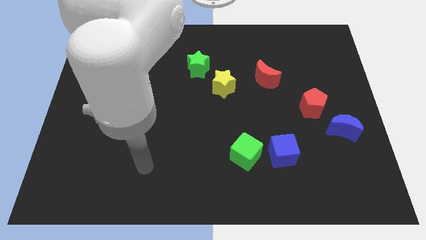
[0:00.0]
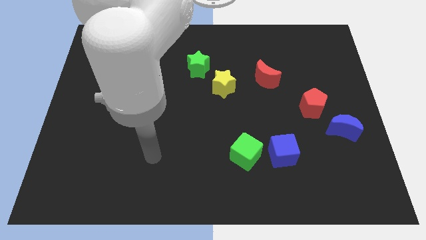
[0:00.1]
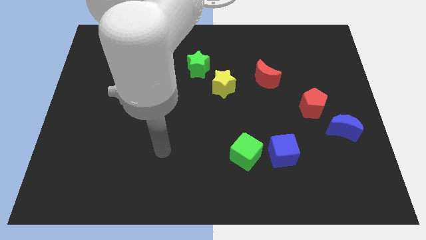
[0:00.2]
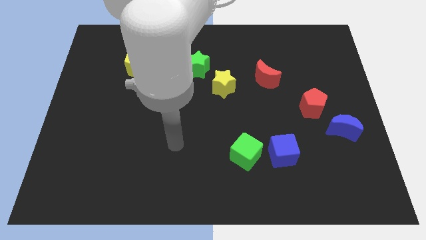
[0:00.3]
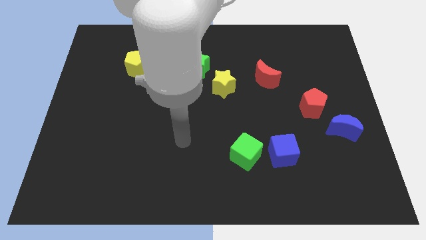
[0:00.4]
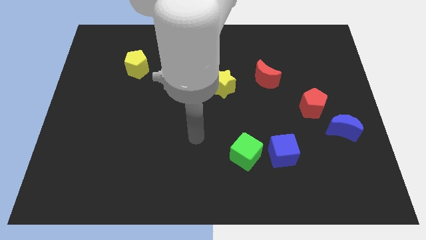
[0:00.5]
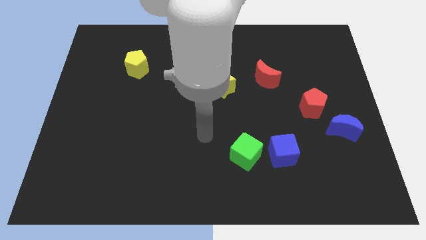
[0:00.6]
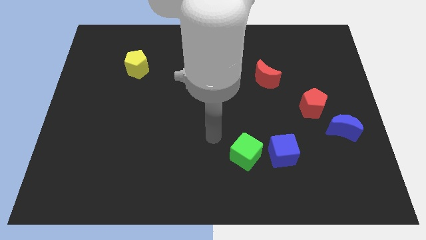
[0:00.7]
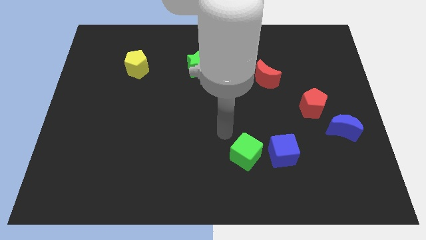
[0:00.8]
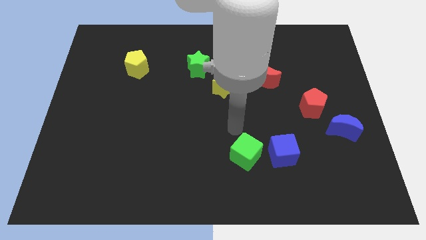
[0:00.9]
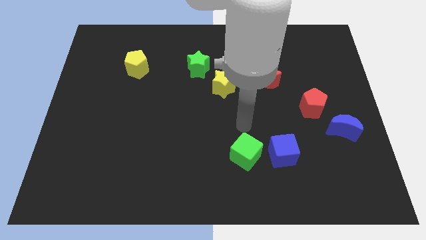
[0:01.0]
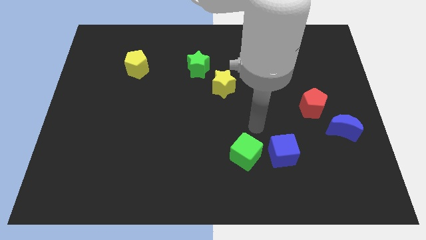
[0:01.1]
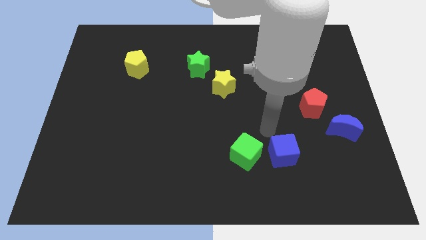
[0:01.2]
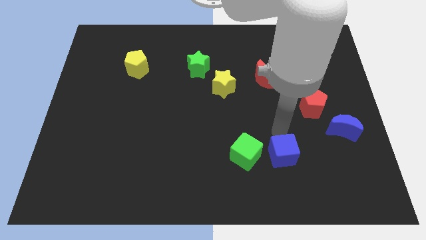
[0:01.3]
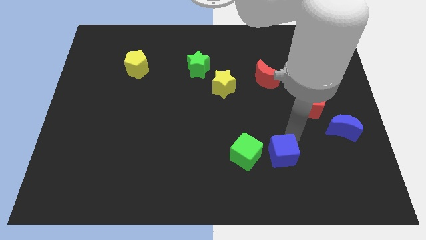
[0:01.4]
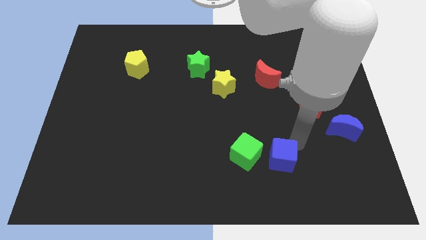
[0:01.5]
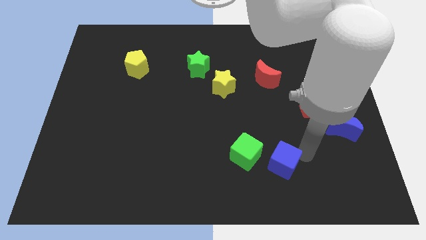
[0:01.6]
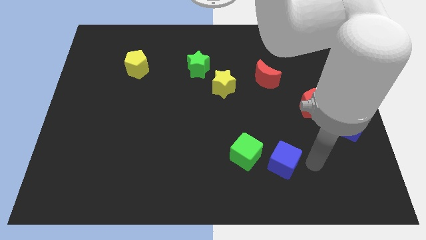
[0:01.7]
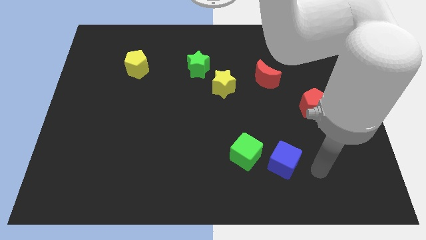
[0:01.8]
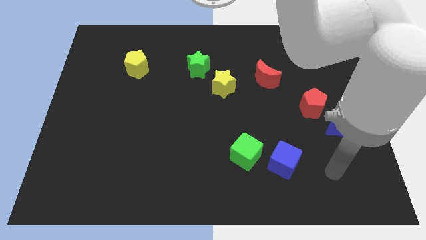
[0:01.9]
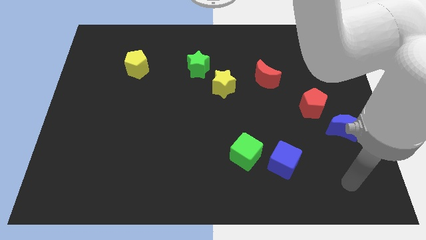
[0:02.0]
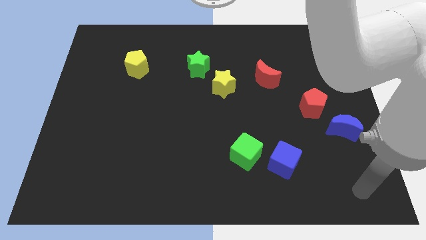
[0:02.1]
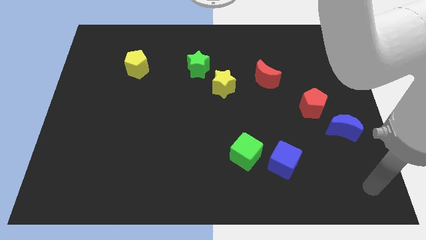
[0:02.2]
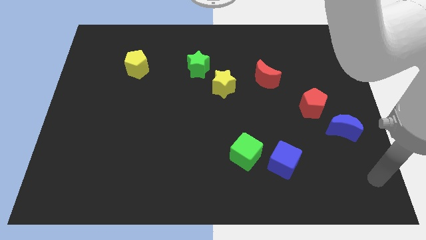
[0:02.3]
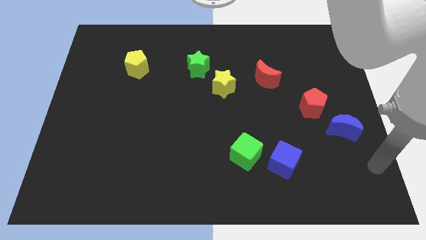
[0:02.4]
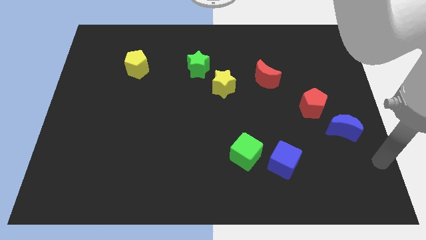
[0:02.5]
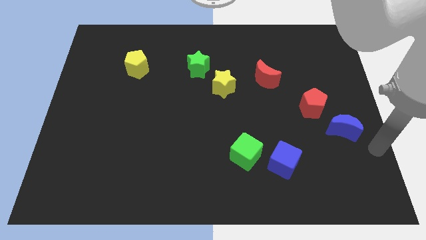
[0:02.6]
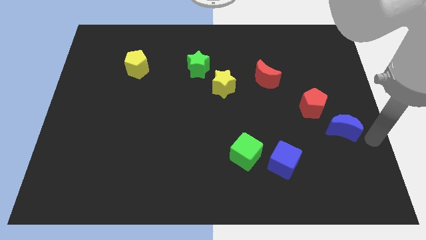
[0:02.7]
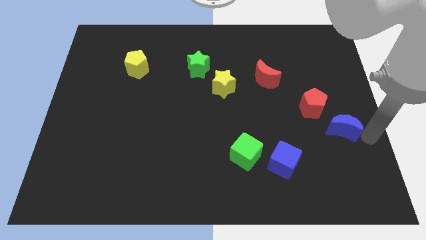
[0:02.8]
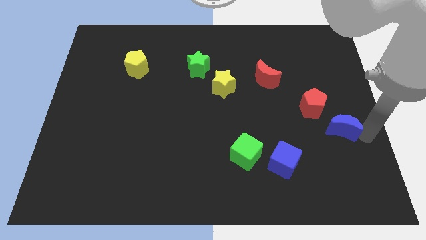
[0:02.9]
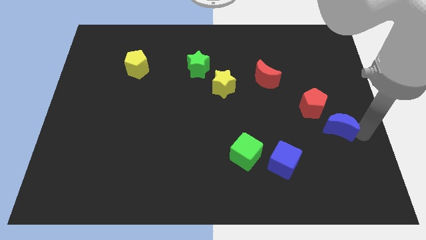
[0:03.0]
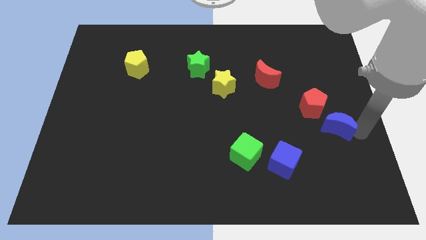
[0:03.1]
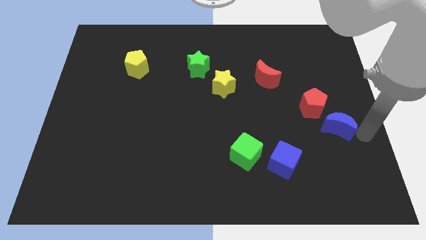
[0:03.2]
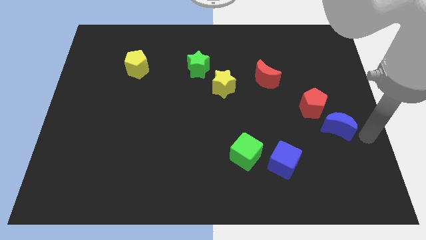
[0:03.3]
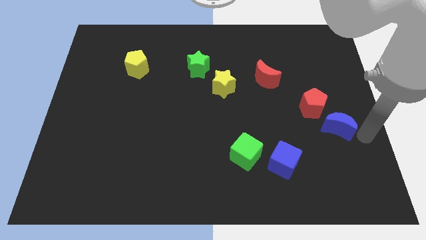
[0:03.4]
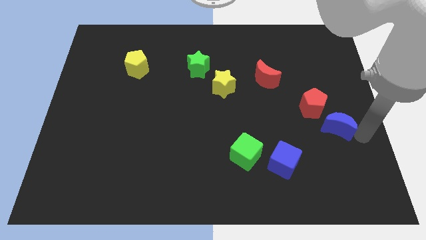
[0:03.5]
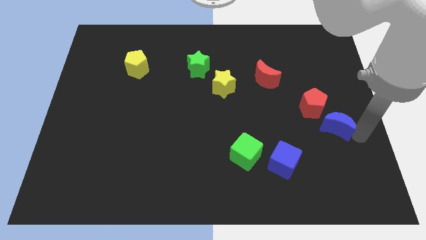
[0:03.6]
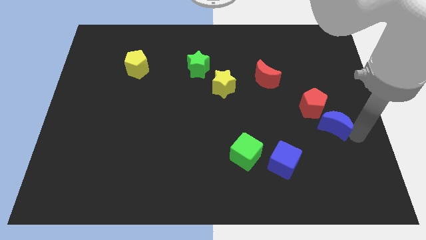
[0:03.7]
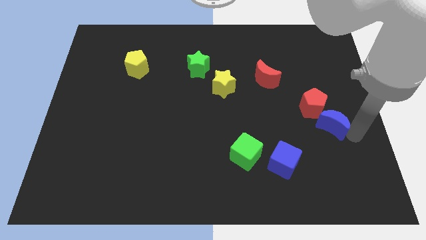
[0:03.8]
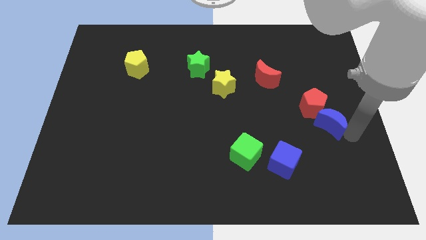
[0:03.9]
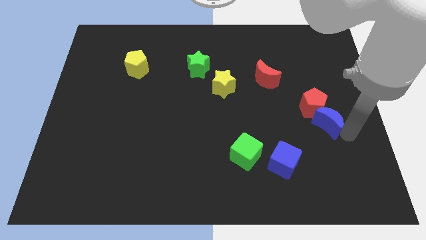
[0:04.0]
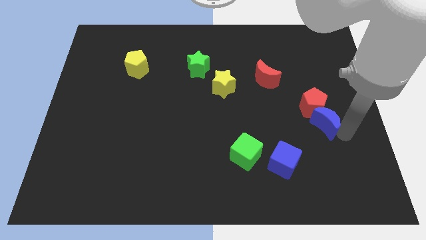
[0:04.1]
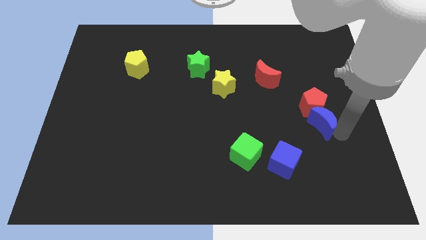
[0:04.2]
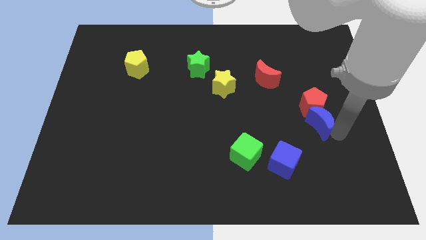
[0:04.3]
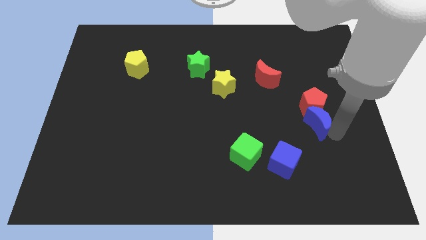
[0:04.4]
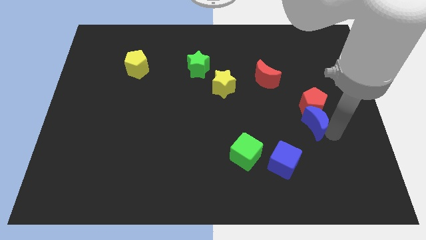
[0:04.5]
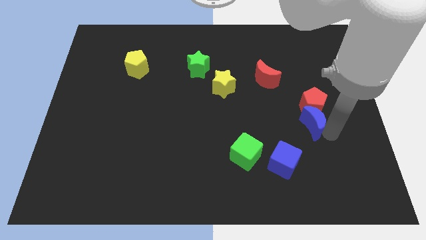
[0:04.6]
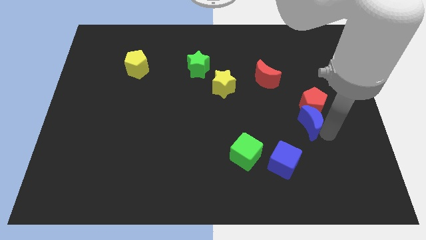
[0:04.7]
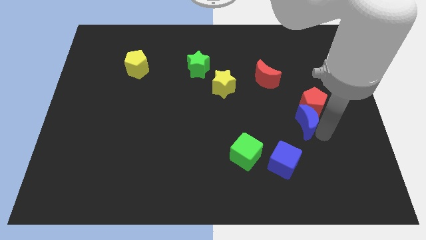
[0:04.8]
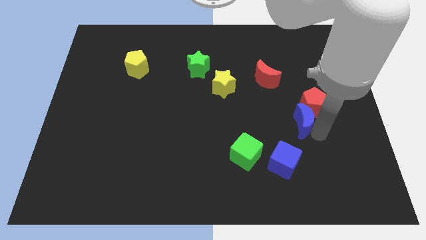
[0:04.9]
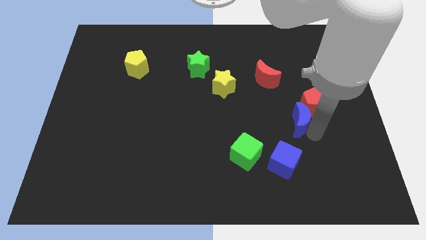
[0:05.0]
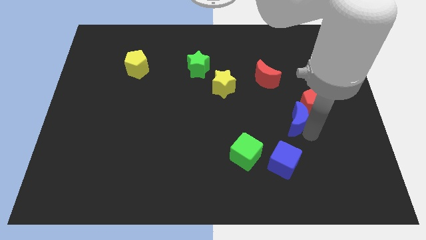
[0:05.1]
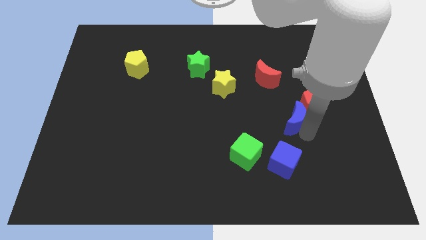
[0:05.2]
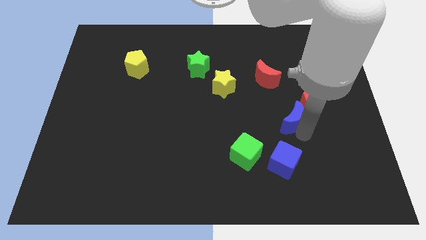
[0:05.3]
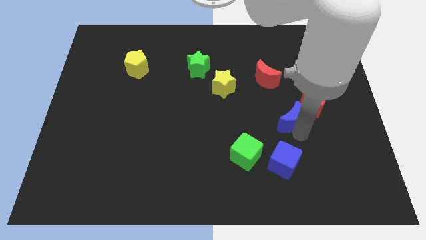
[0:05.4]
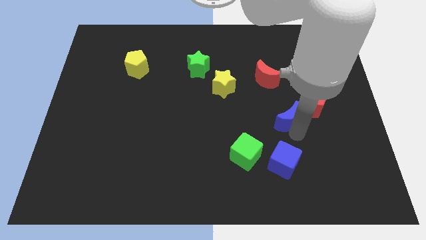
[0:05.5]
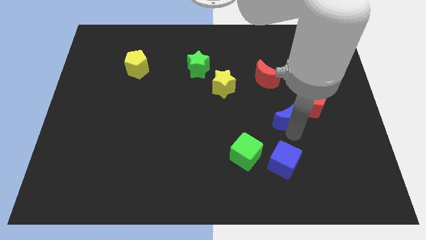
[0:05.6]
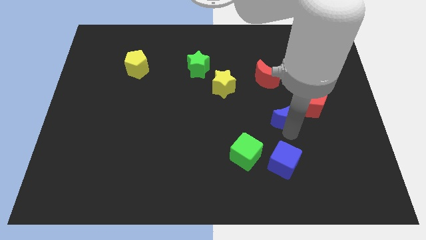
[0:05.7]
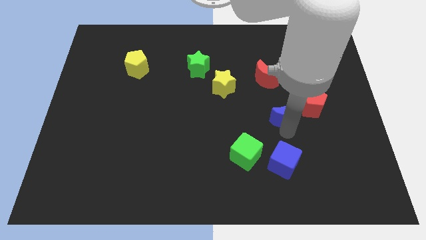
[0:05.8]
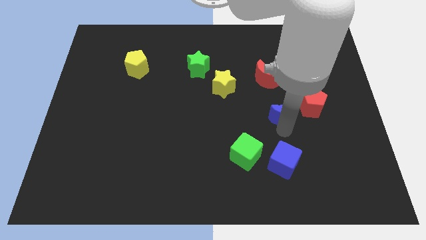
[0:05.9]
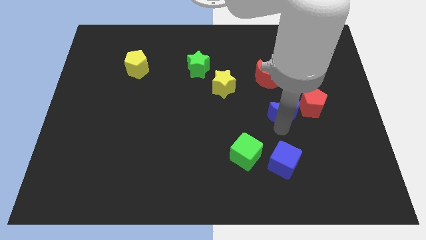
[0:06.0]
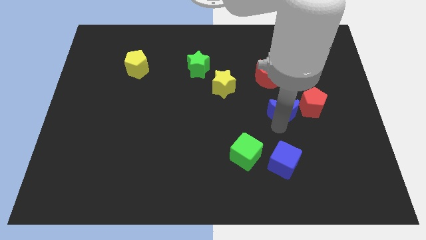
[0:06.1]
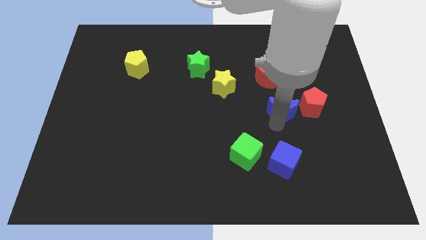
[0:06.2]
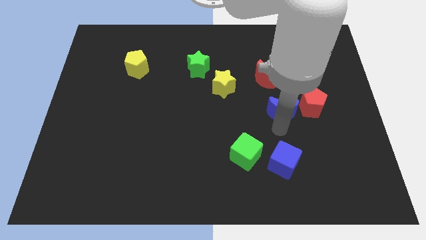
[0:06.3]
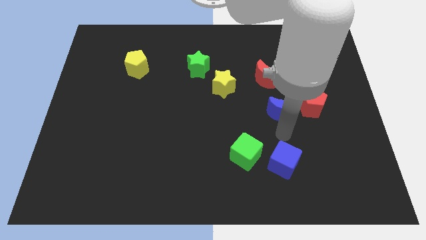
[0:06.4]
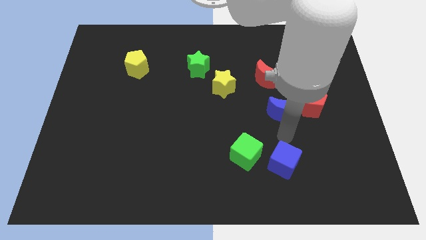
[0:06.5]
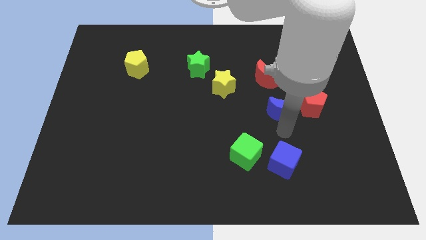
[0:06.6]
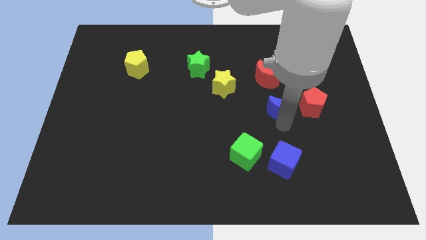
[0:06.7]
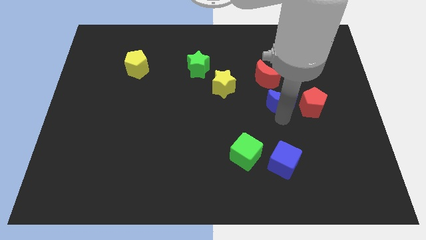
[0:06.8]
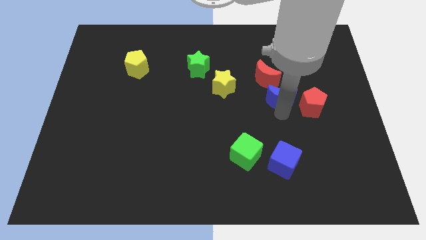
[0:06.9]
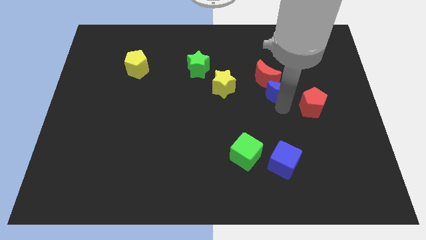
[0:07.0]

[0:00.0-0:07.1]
move the blue moon close to the red moon
